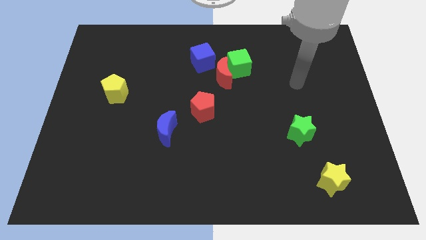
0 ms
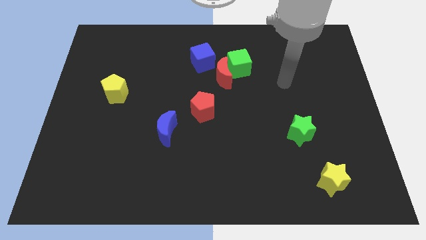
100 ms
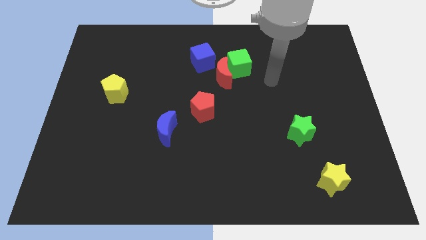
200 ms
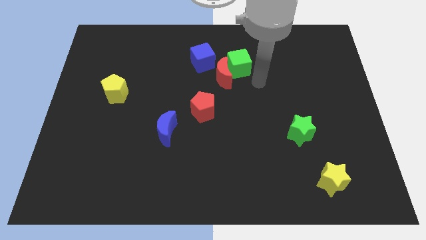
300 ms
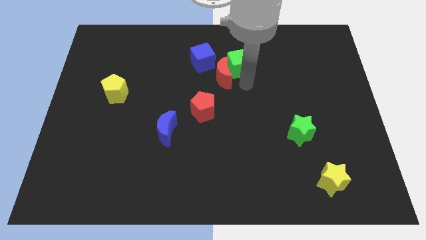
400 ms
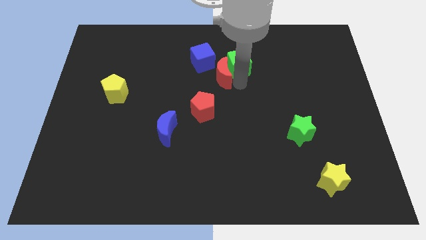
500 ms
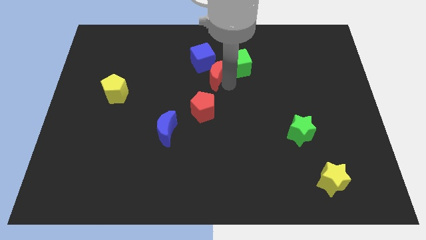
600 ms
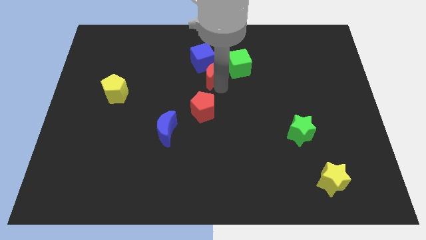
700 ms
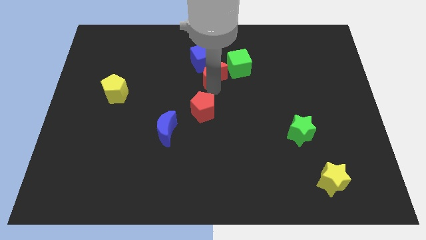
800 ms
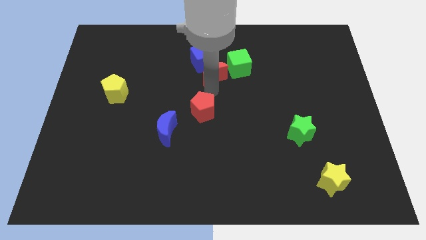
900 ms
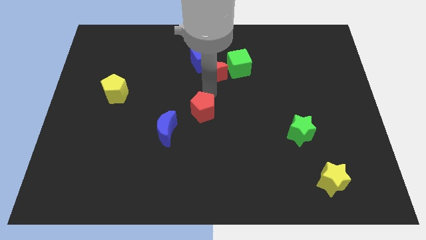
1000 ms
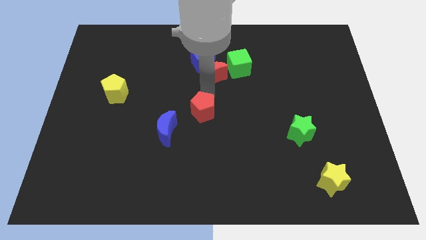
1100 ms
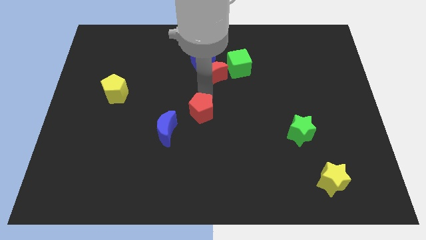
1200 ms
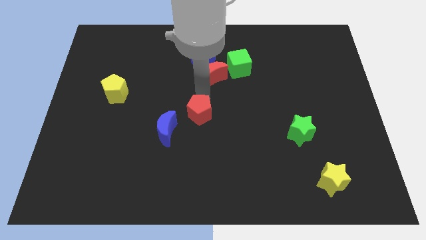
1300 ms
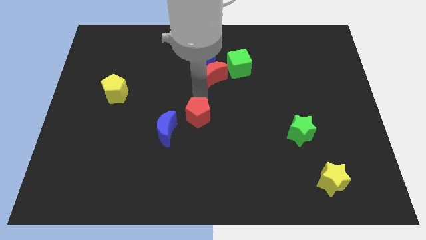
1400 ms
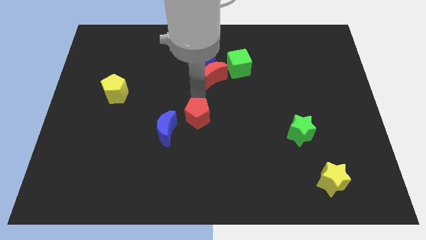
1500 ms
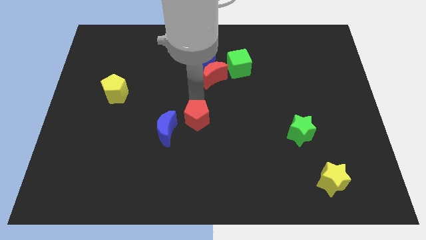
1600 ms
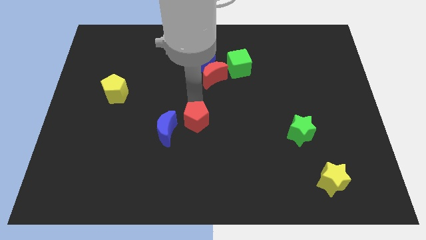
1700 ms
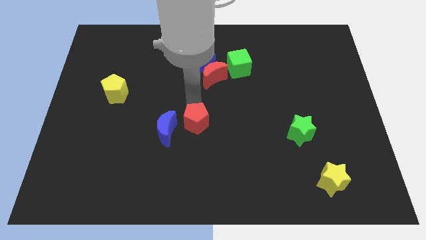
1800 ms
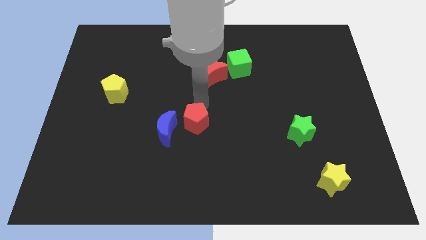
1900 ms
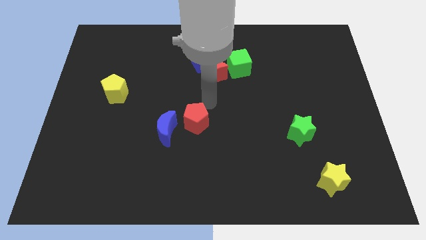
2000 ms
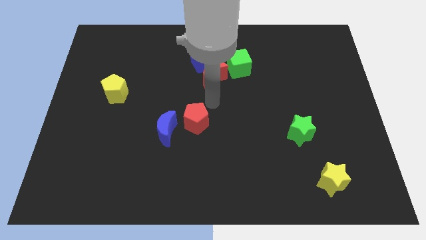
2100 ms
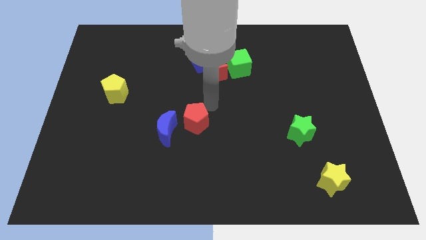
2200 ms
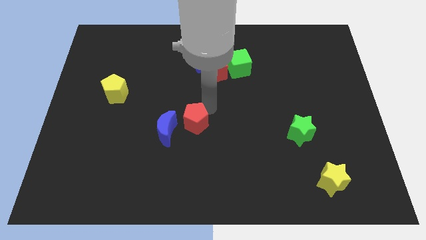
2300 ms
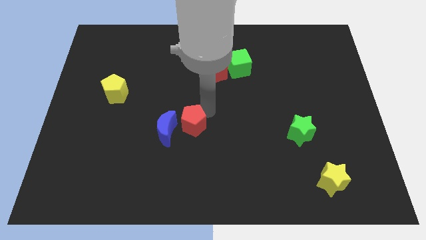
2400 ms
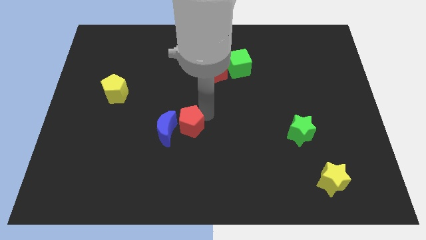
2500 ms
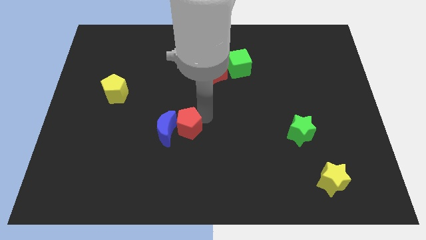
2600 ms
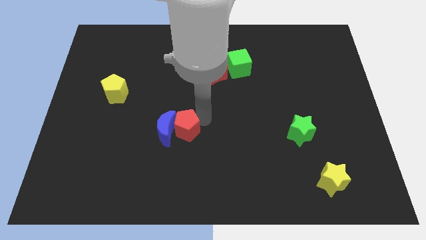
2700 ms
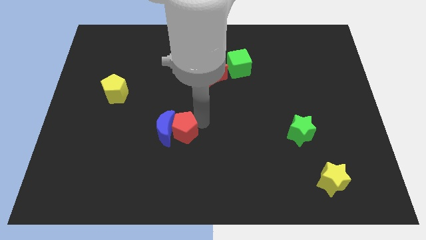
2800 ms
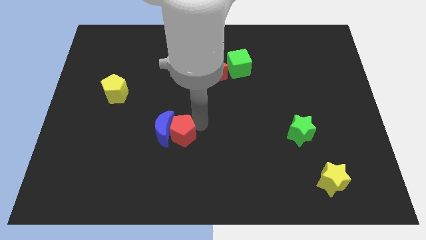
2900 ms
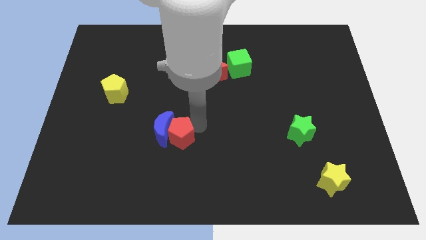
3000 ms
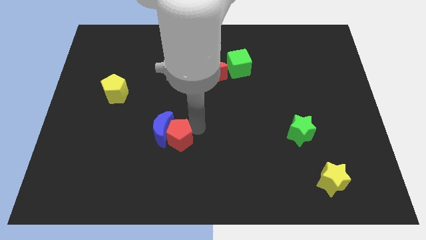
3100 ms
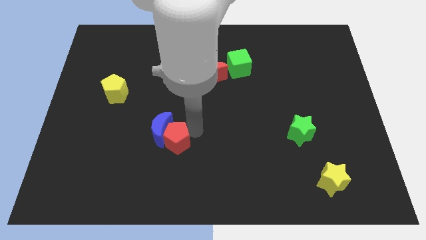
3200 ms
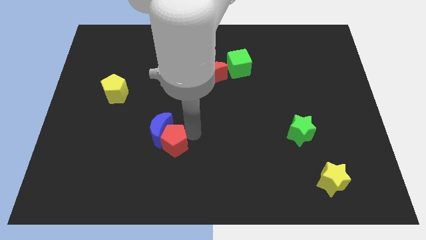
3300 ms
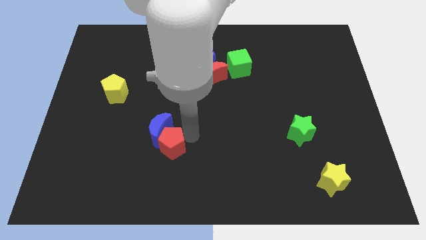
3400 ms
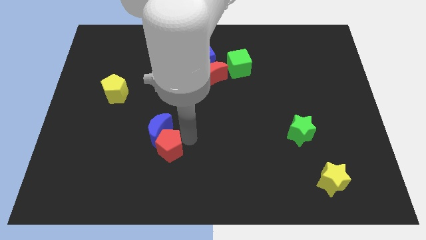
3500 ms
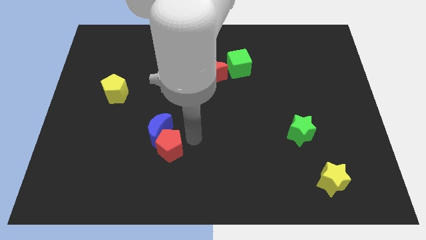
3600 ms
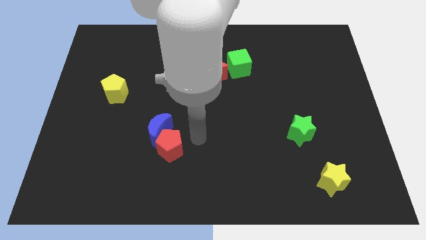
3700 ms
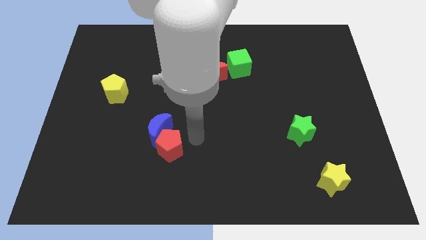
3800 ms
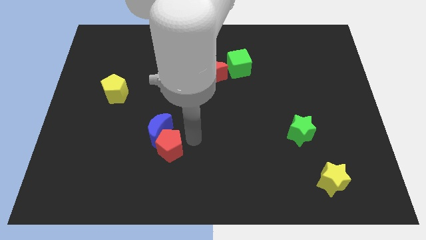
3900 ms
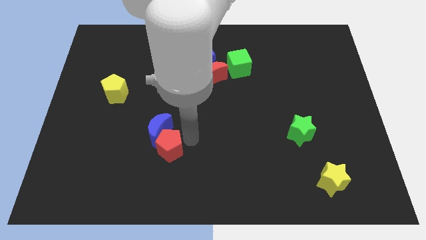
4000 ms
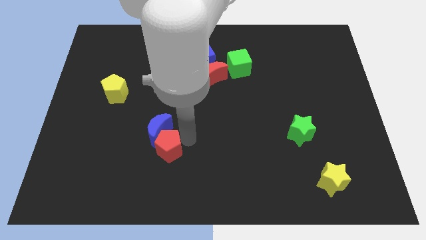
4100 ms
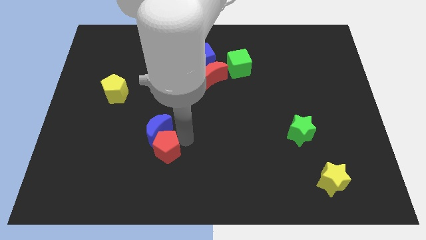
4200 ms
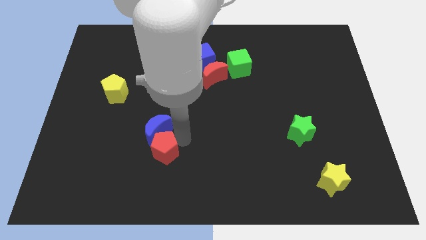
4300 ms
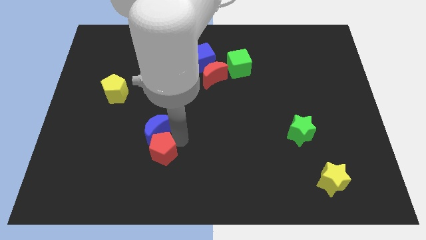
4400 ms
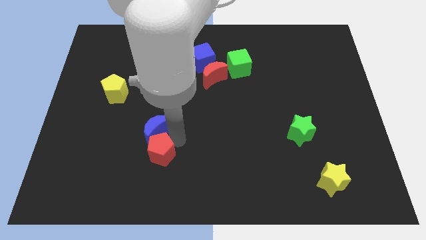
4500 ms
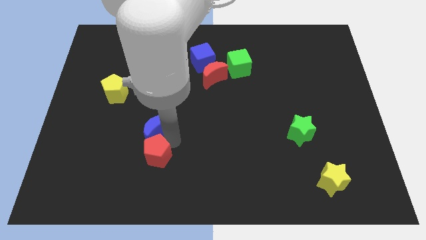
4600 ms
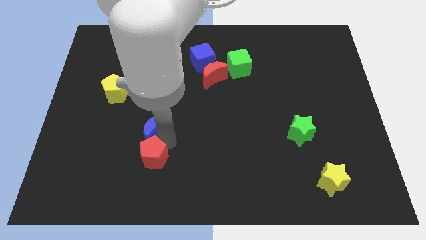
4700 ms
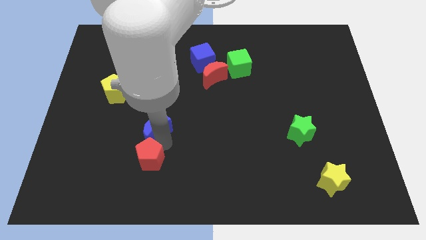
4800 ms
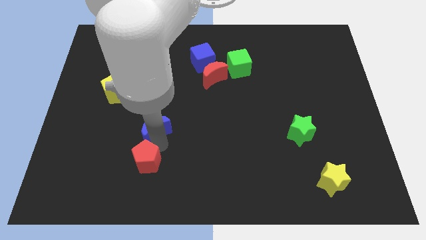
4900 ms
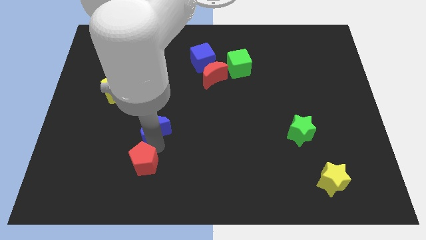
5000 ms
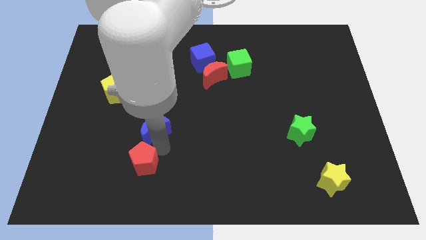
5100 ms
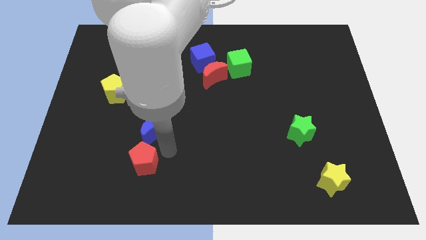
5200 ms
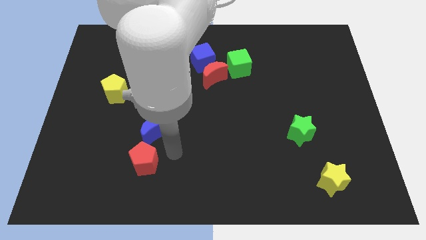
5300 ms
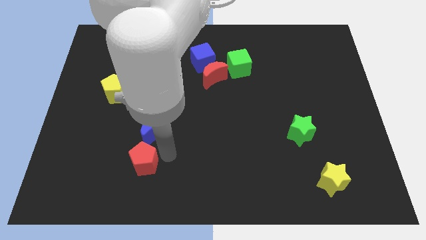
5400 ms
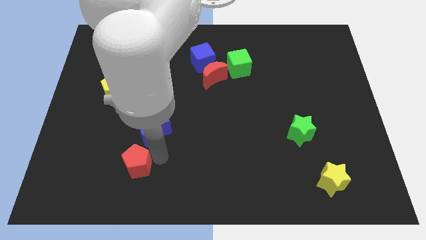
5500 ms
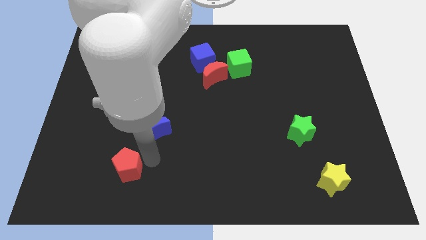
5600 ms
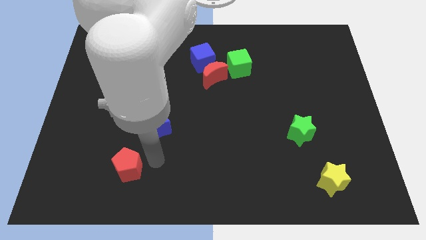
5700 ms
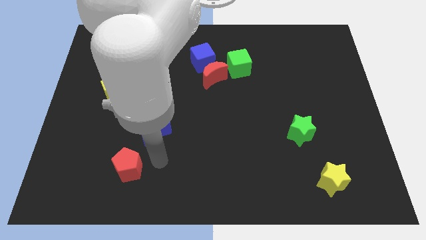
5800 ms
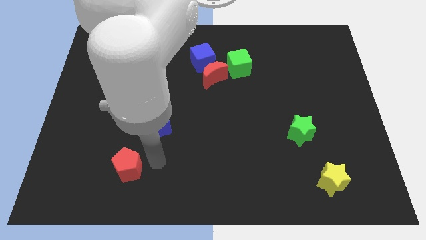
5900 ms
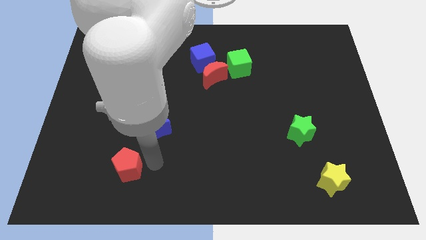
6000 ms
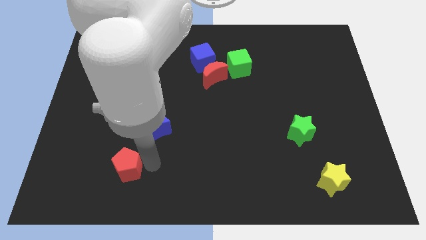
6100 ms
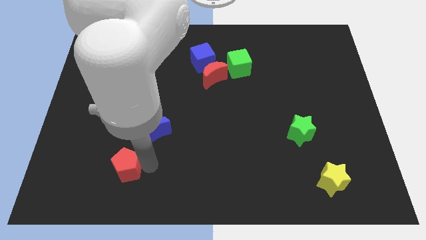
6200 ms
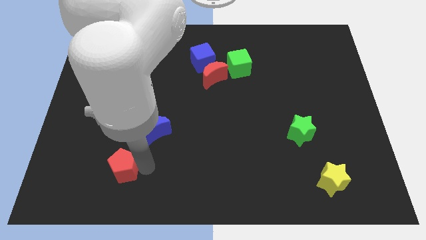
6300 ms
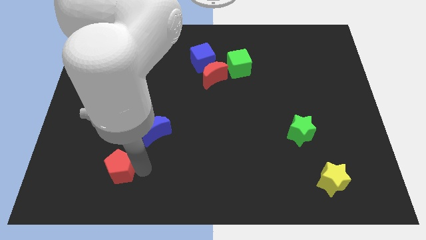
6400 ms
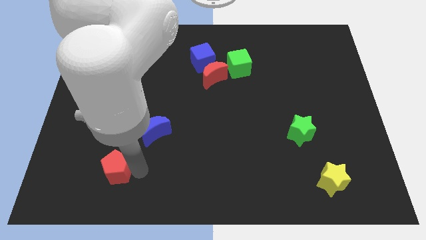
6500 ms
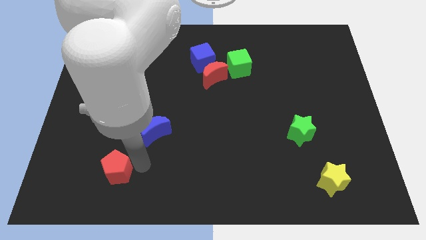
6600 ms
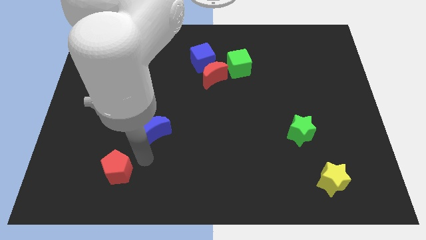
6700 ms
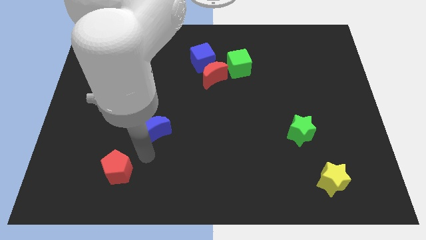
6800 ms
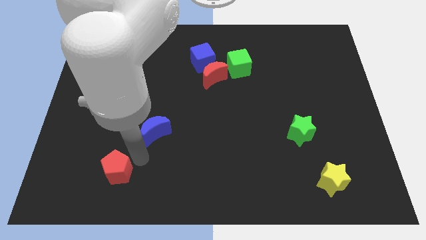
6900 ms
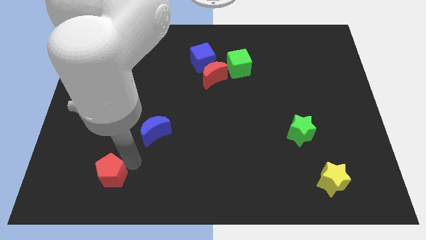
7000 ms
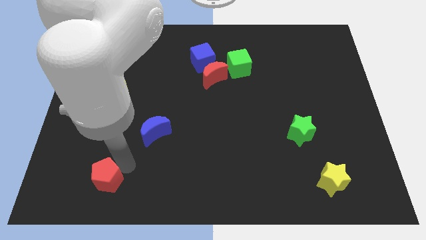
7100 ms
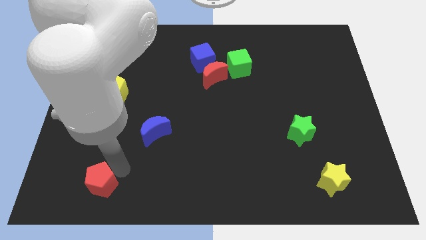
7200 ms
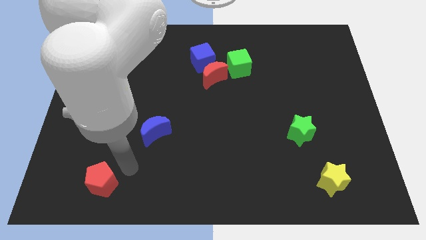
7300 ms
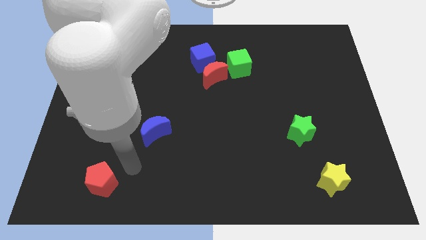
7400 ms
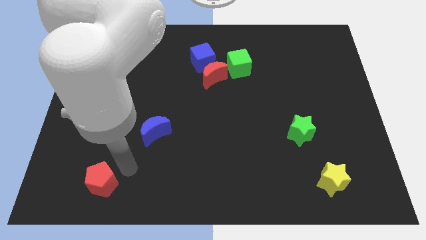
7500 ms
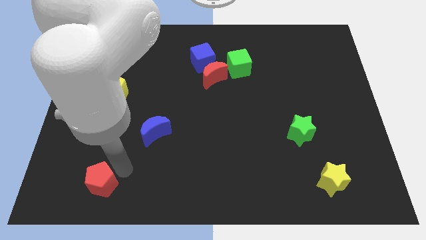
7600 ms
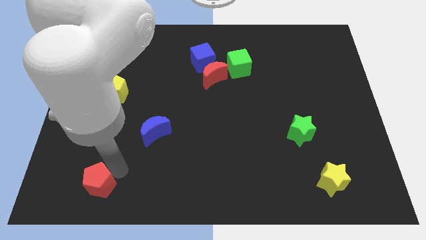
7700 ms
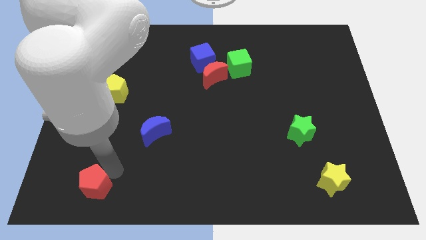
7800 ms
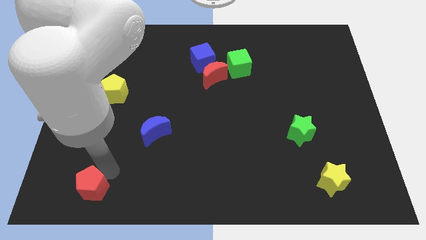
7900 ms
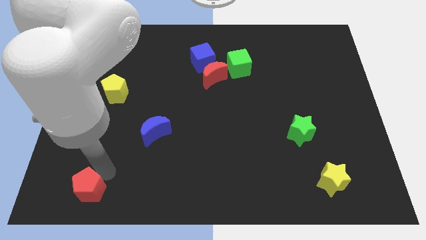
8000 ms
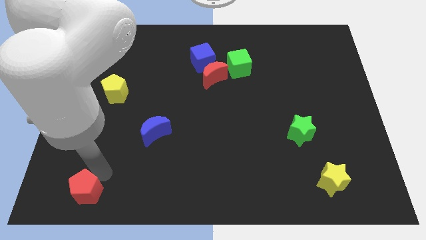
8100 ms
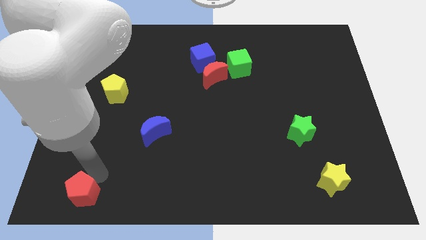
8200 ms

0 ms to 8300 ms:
put the red pentagon to the lower left corner
